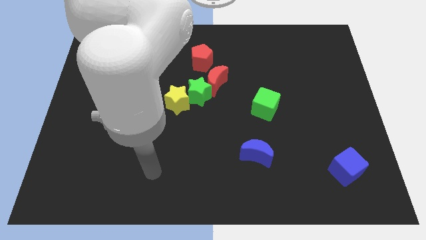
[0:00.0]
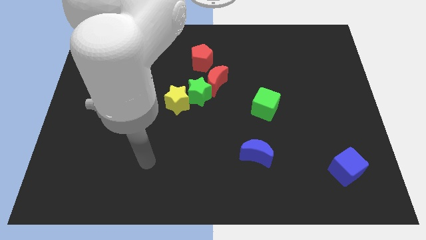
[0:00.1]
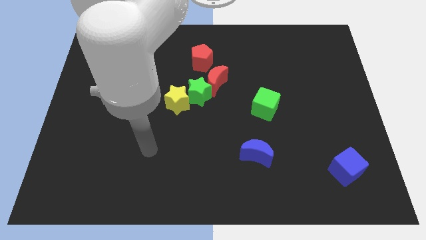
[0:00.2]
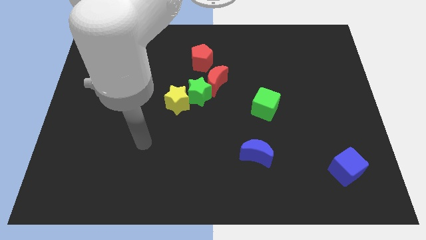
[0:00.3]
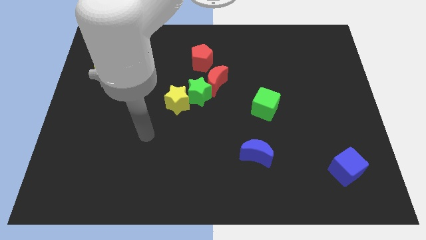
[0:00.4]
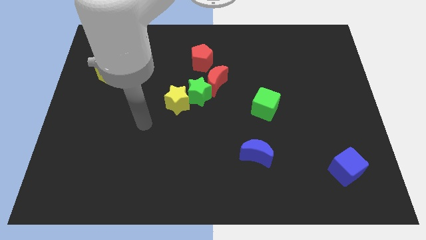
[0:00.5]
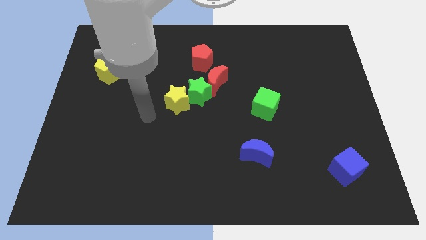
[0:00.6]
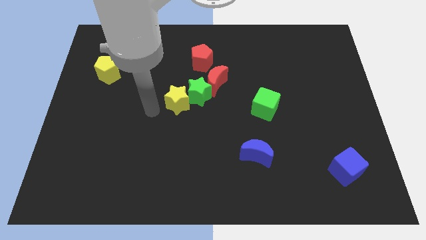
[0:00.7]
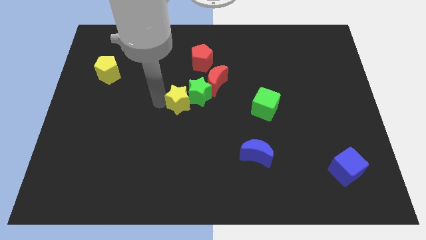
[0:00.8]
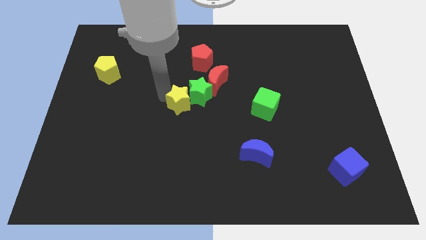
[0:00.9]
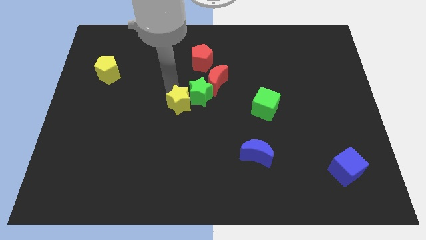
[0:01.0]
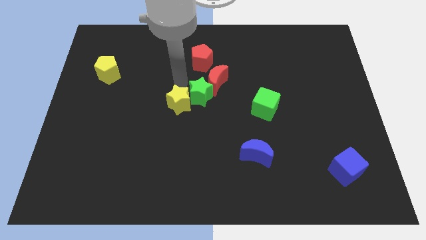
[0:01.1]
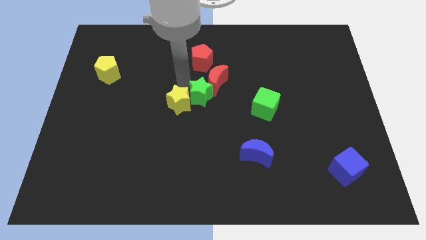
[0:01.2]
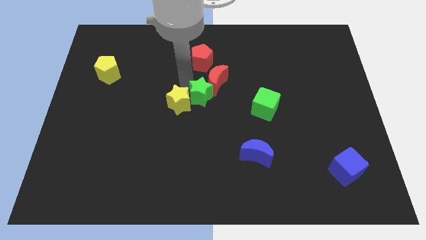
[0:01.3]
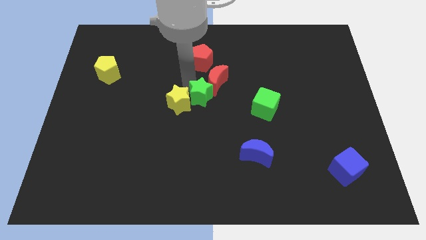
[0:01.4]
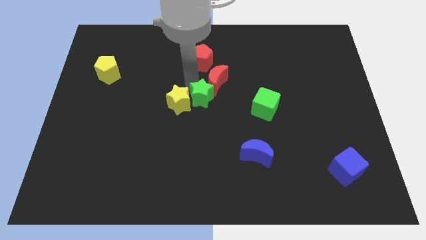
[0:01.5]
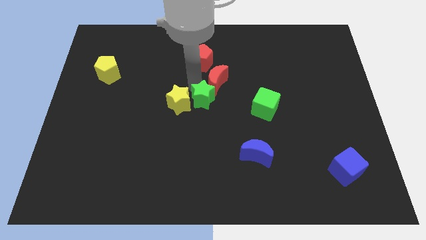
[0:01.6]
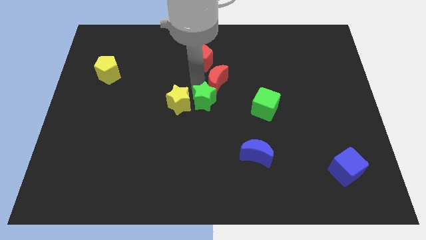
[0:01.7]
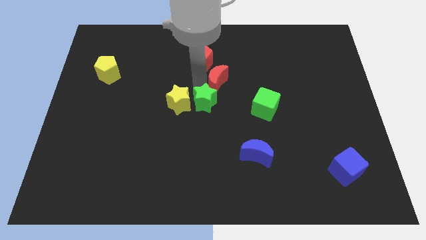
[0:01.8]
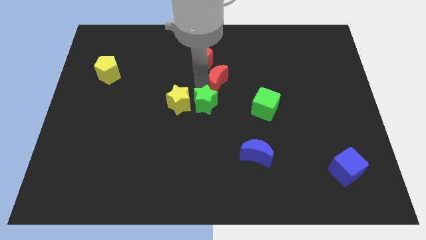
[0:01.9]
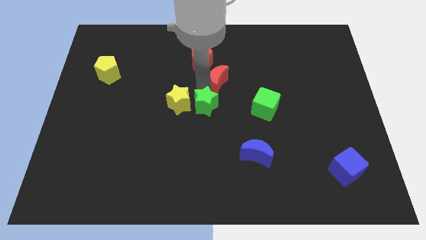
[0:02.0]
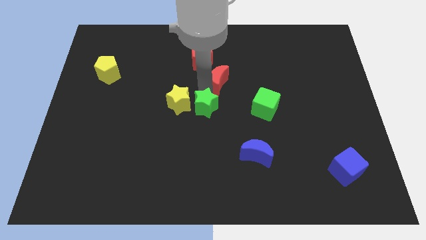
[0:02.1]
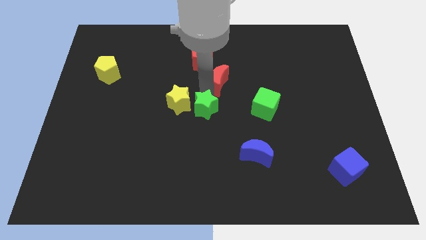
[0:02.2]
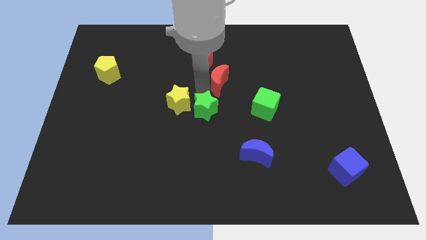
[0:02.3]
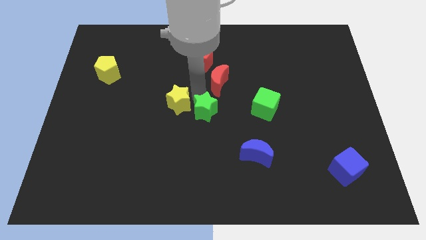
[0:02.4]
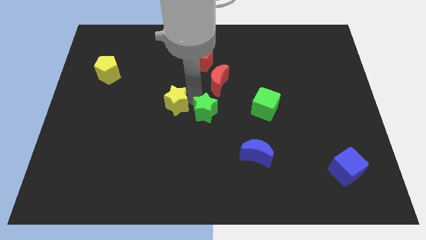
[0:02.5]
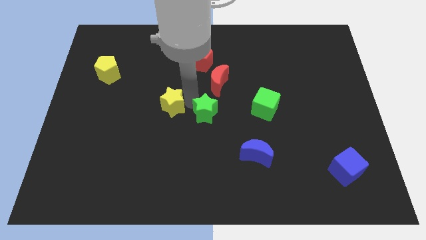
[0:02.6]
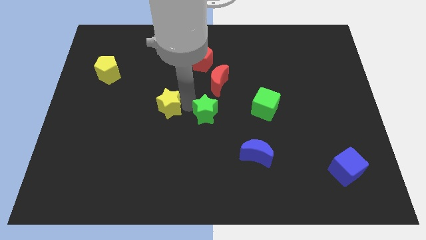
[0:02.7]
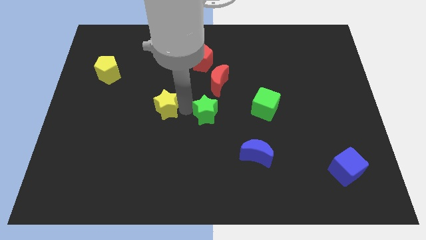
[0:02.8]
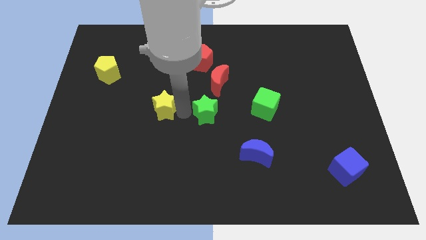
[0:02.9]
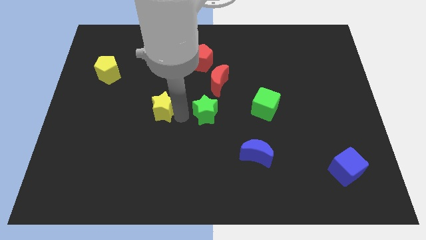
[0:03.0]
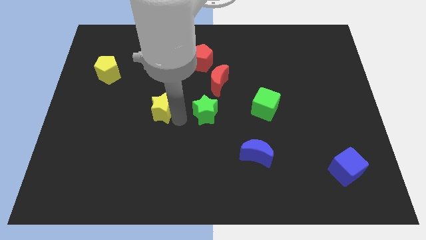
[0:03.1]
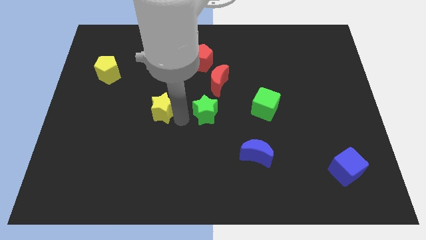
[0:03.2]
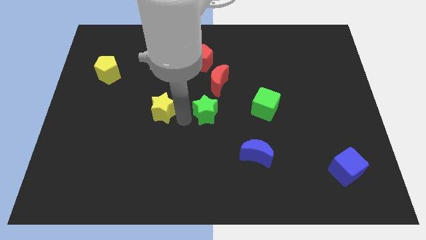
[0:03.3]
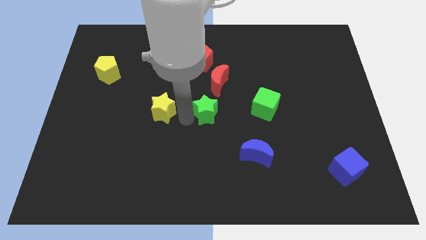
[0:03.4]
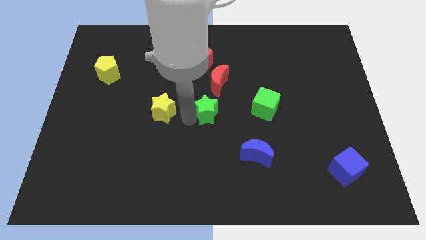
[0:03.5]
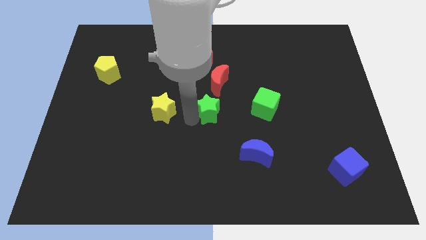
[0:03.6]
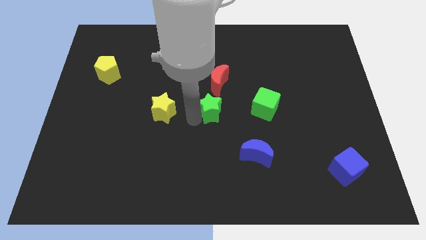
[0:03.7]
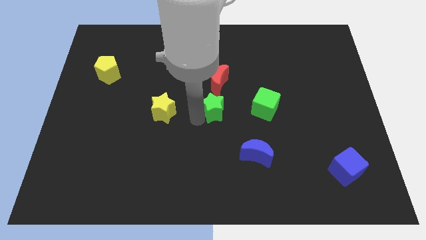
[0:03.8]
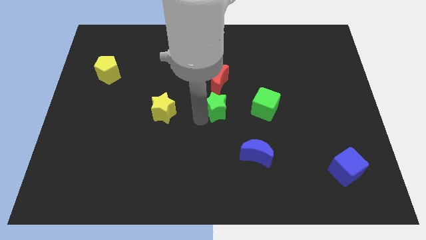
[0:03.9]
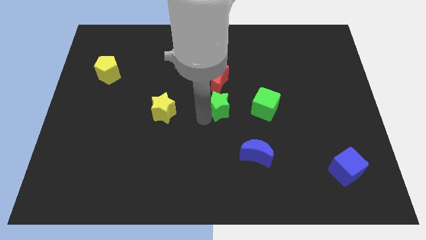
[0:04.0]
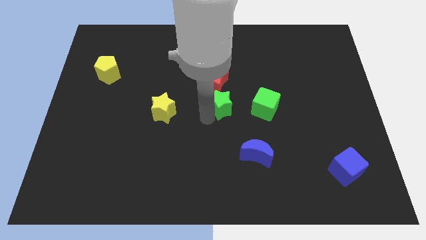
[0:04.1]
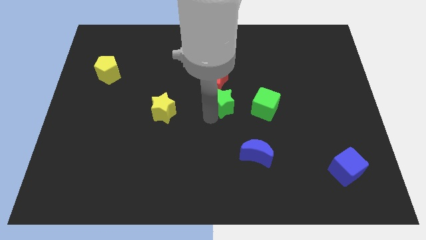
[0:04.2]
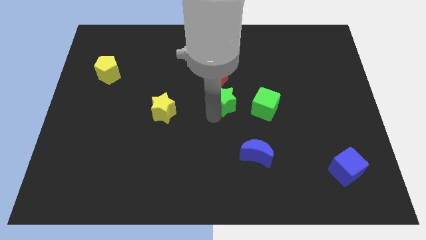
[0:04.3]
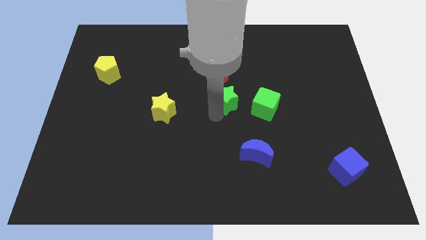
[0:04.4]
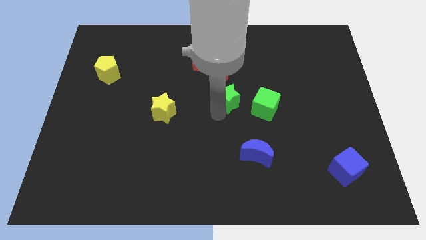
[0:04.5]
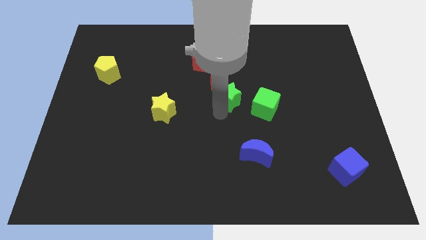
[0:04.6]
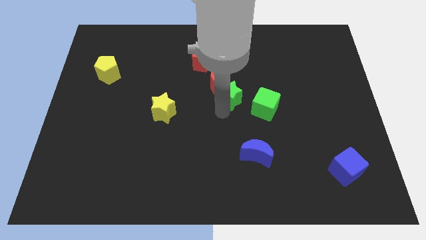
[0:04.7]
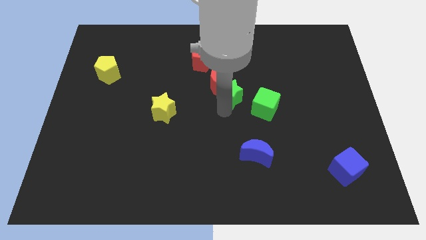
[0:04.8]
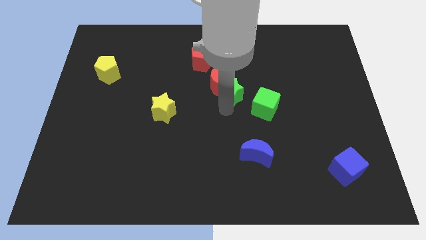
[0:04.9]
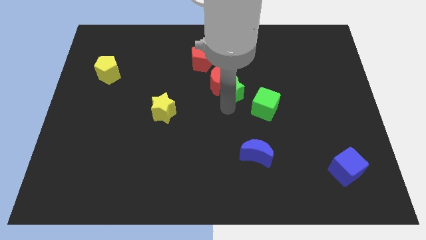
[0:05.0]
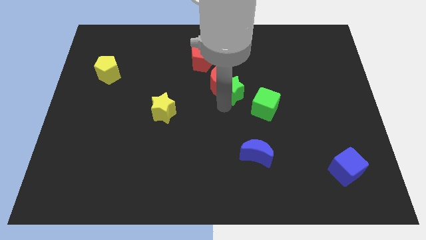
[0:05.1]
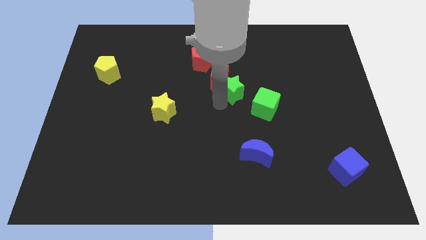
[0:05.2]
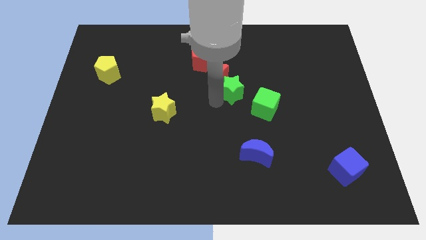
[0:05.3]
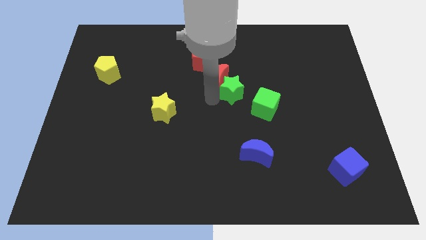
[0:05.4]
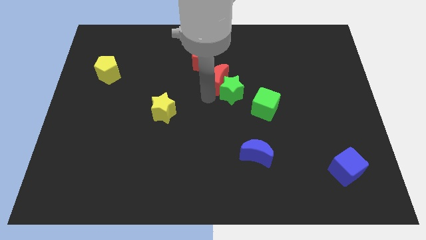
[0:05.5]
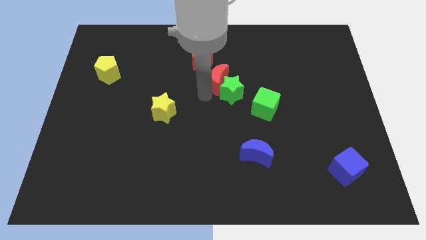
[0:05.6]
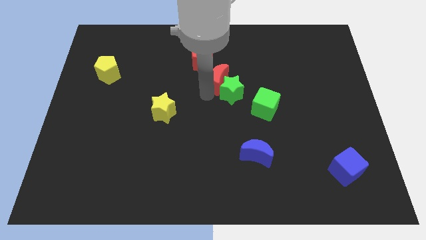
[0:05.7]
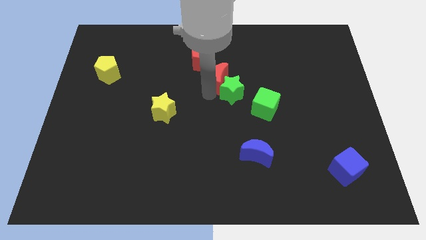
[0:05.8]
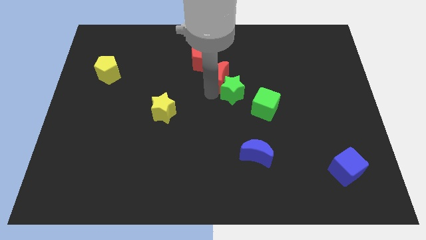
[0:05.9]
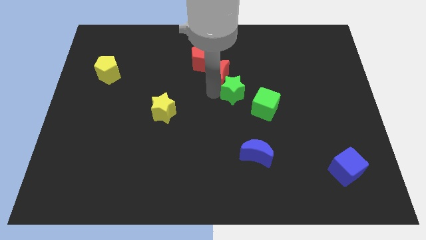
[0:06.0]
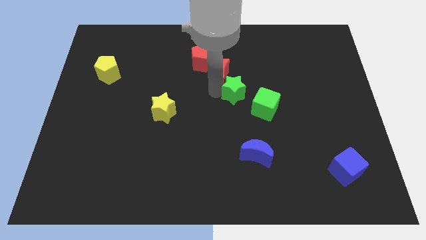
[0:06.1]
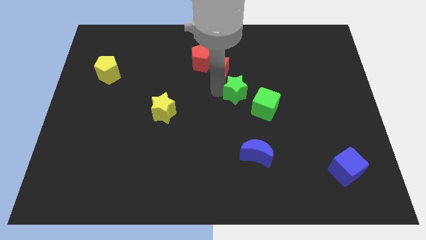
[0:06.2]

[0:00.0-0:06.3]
pull the green star apart from the red moon and yellow star

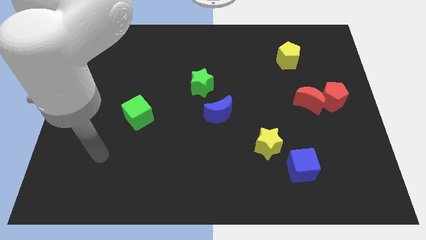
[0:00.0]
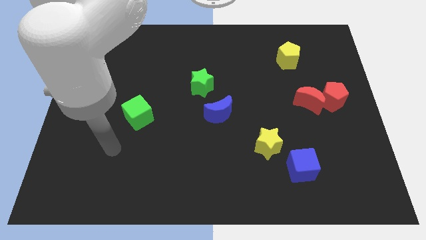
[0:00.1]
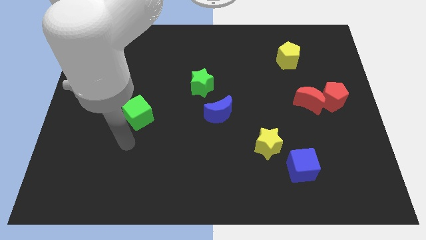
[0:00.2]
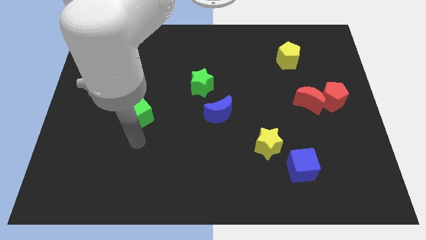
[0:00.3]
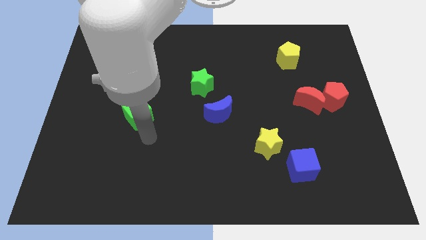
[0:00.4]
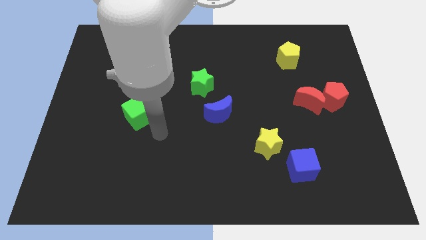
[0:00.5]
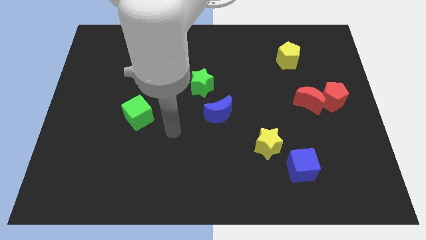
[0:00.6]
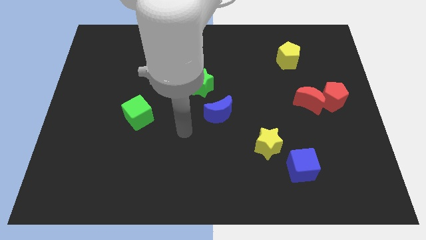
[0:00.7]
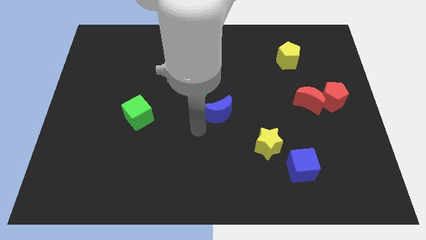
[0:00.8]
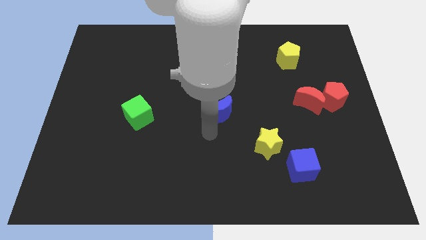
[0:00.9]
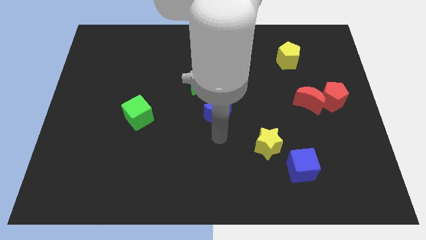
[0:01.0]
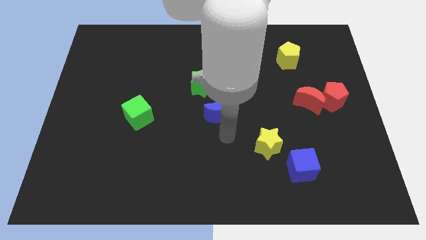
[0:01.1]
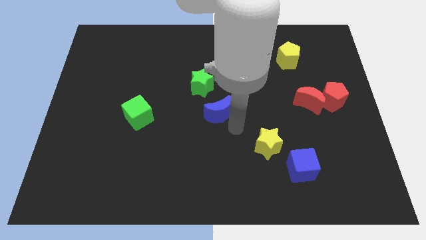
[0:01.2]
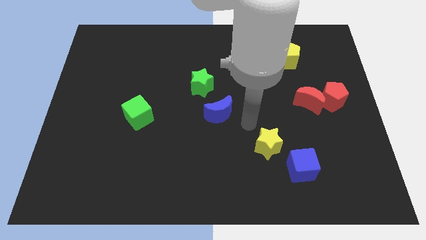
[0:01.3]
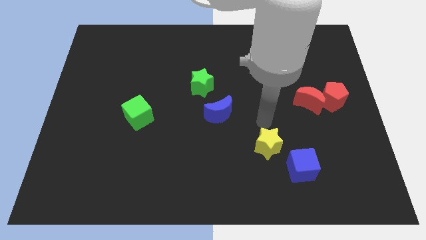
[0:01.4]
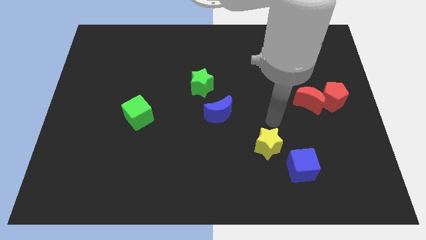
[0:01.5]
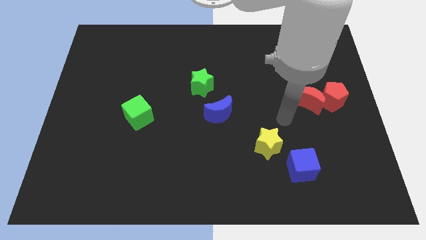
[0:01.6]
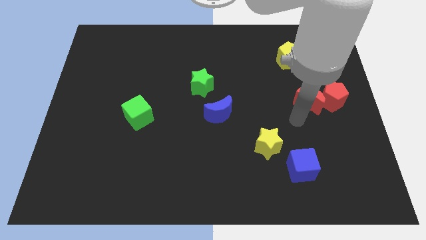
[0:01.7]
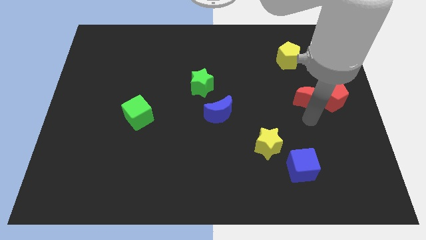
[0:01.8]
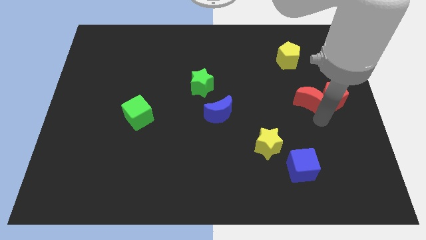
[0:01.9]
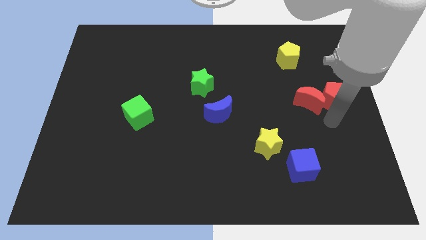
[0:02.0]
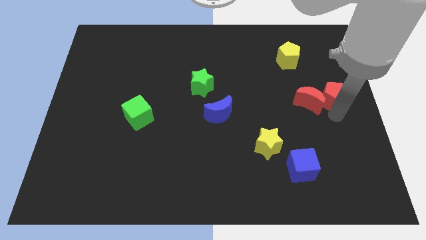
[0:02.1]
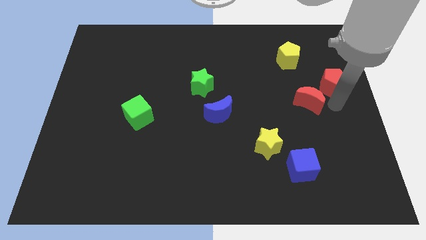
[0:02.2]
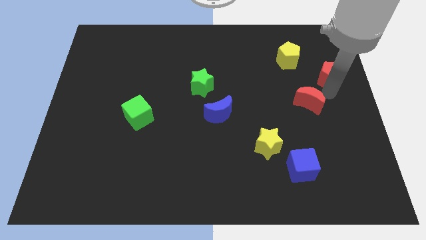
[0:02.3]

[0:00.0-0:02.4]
pull the red moon apart from the red pentagon

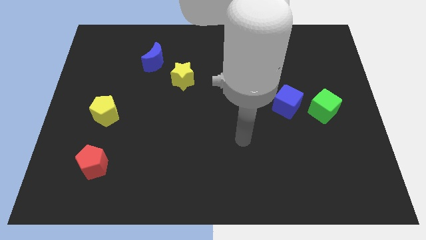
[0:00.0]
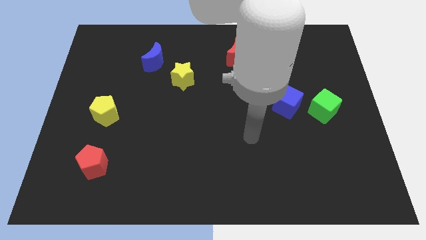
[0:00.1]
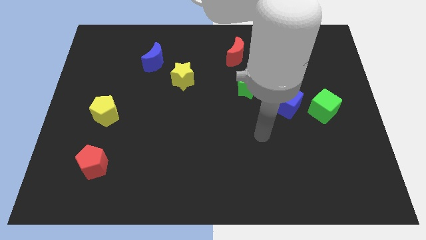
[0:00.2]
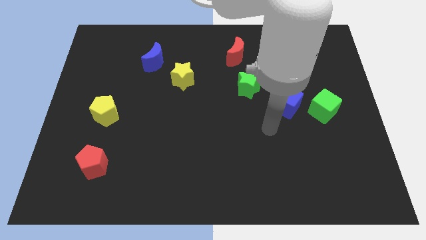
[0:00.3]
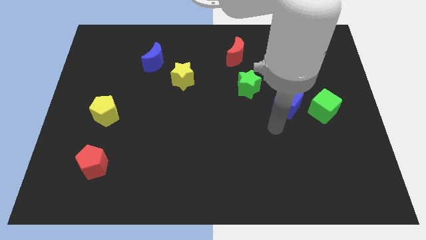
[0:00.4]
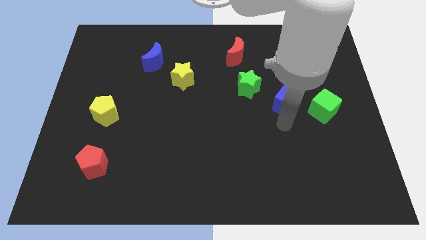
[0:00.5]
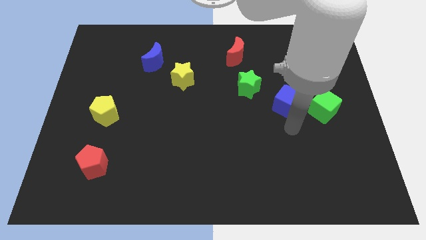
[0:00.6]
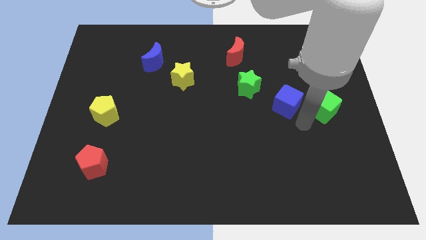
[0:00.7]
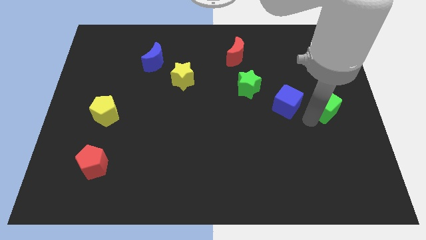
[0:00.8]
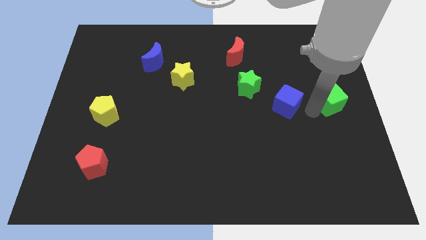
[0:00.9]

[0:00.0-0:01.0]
move the blue cube away from the green cube
